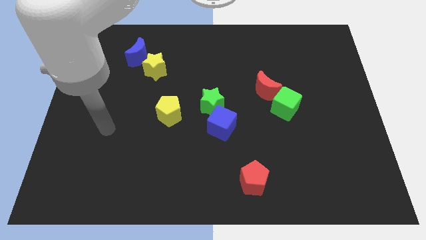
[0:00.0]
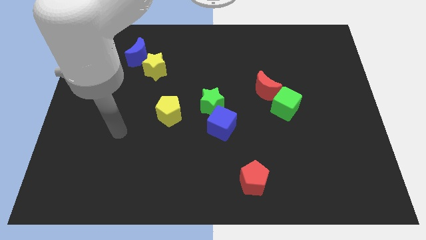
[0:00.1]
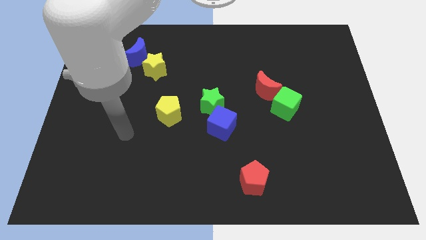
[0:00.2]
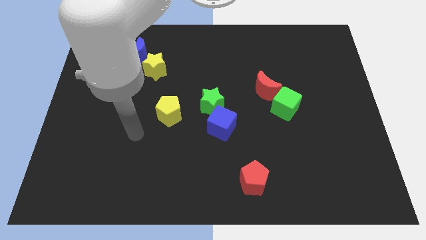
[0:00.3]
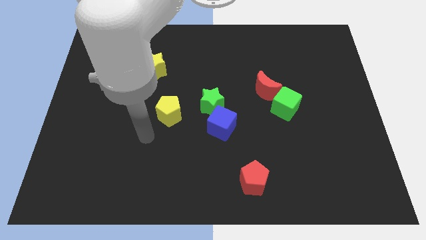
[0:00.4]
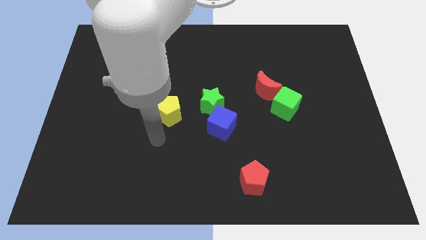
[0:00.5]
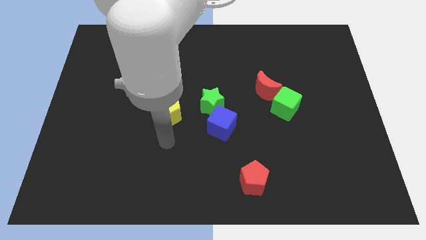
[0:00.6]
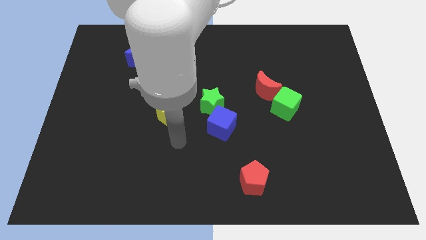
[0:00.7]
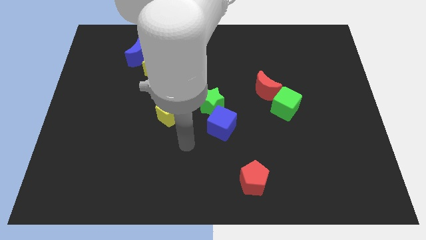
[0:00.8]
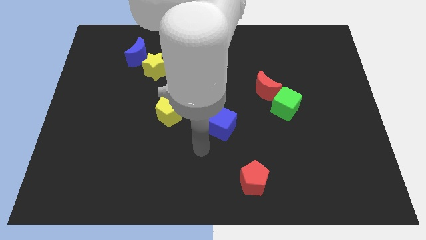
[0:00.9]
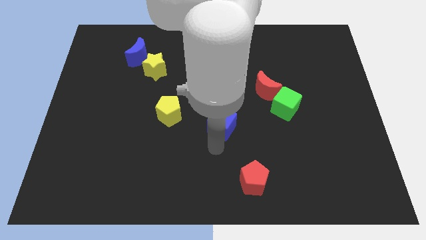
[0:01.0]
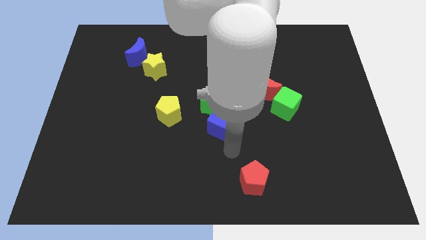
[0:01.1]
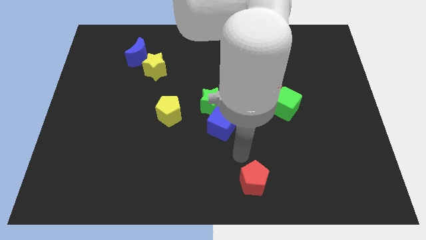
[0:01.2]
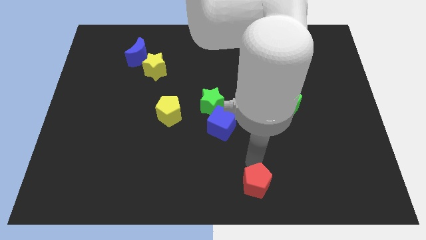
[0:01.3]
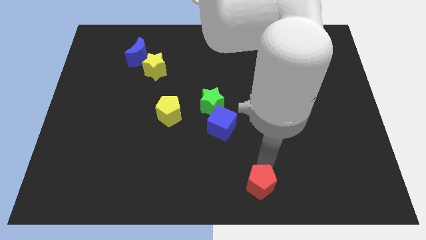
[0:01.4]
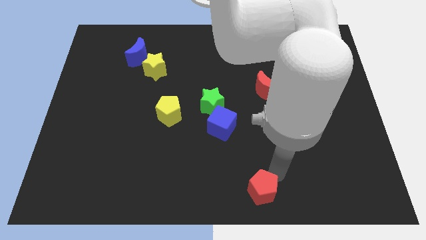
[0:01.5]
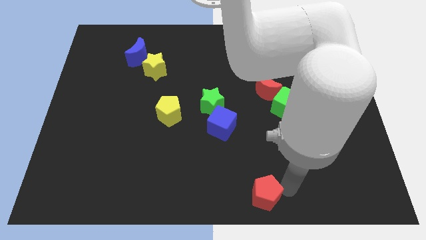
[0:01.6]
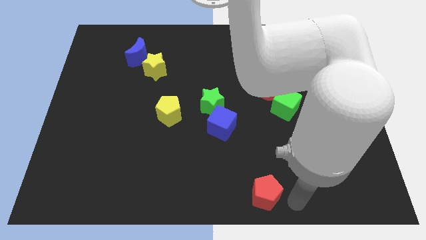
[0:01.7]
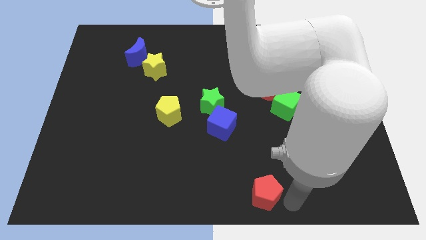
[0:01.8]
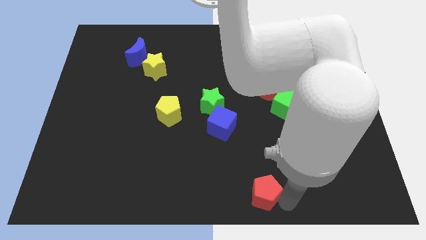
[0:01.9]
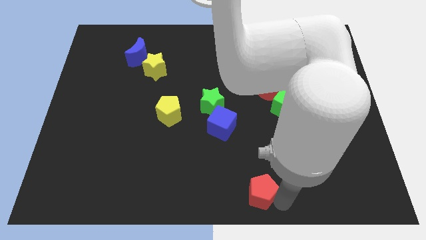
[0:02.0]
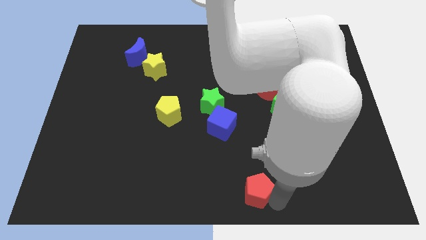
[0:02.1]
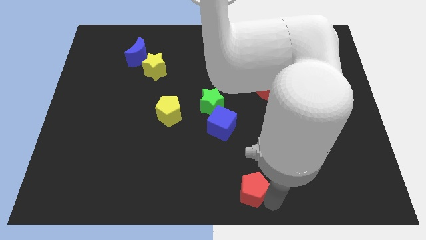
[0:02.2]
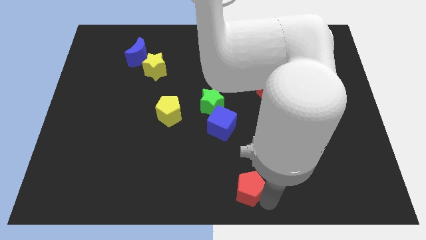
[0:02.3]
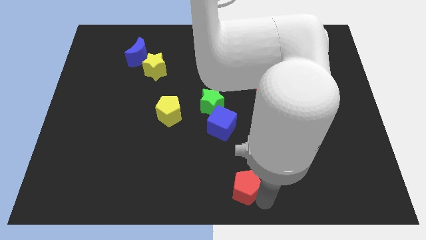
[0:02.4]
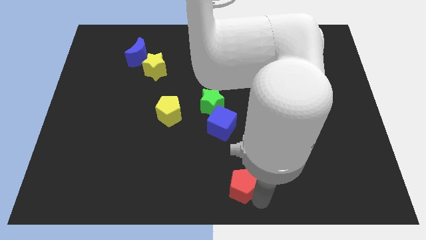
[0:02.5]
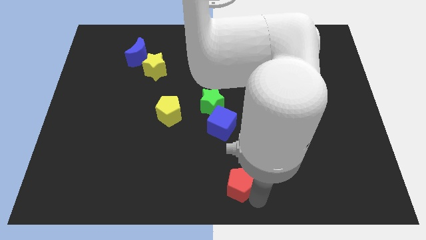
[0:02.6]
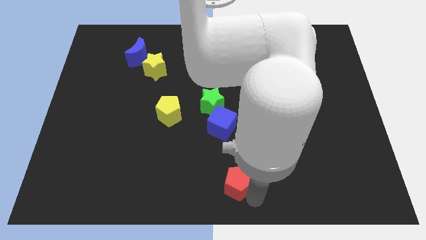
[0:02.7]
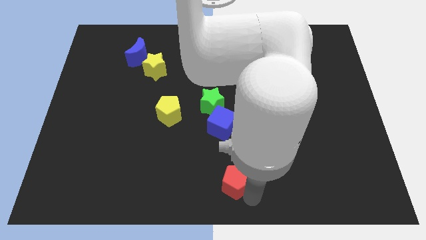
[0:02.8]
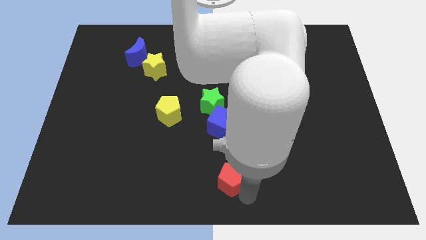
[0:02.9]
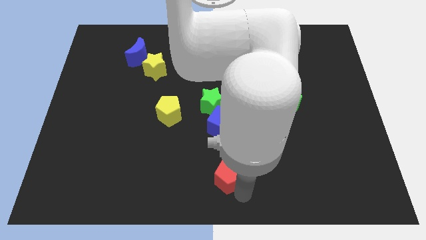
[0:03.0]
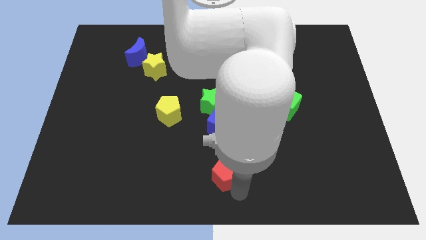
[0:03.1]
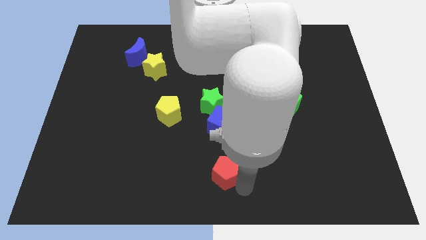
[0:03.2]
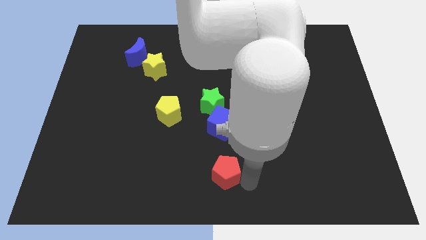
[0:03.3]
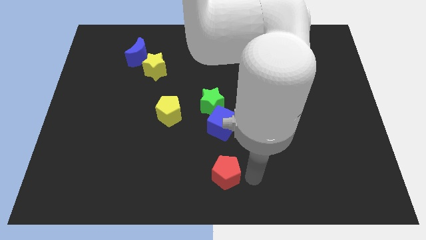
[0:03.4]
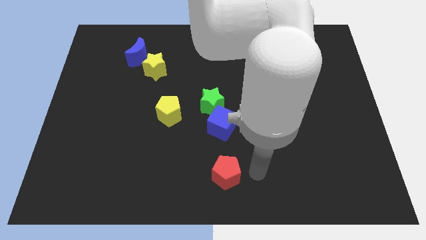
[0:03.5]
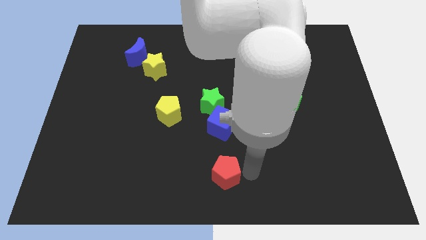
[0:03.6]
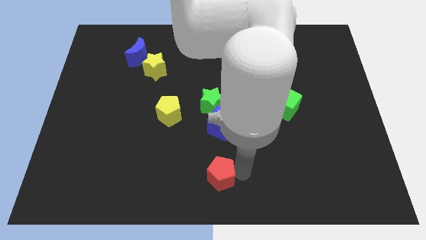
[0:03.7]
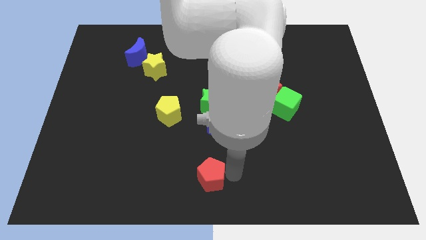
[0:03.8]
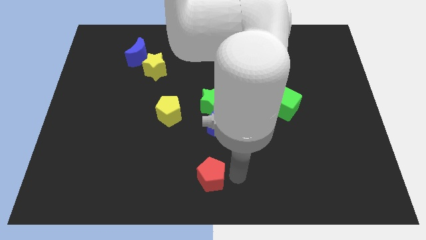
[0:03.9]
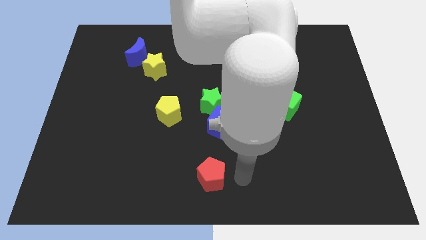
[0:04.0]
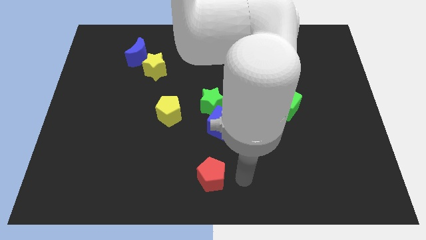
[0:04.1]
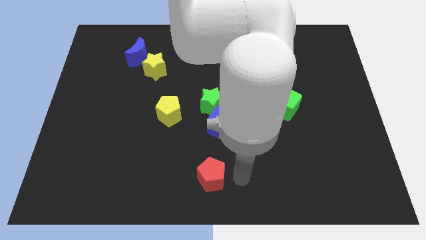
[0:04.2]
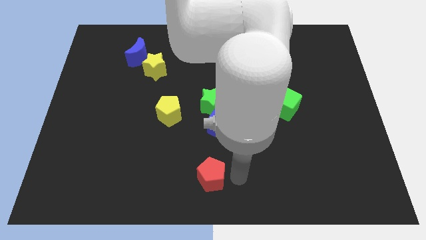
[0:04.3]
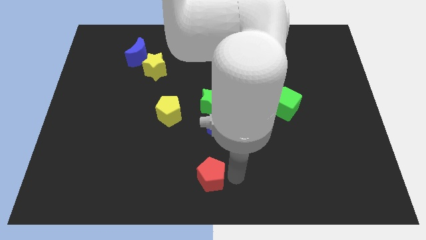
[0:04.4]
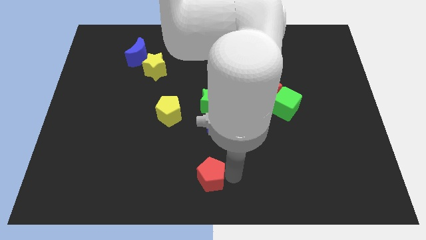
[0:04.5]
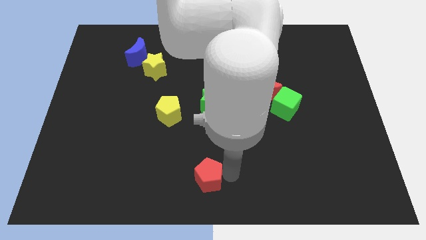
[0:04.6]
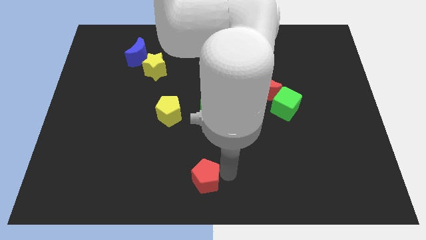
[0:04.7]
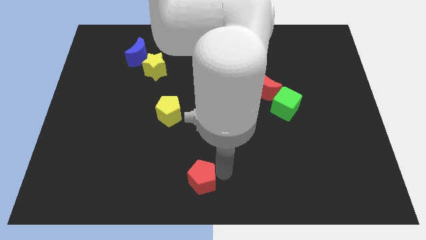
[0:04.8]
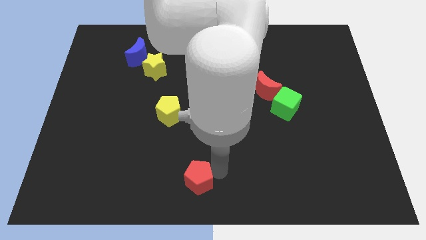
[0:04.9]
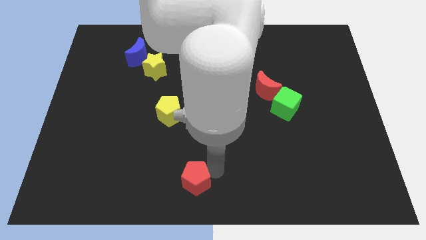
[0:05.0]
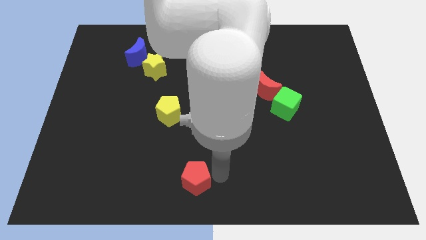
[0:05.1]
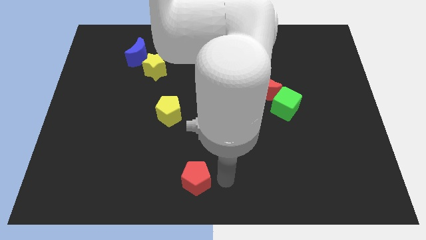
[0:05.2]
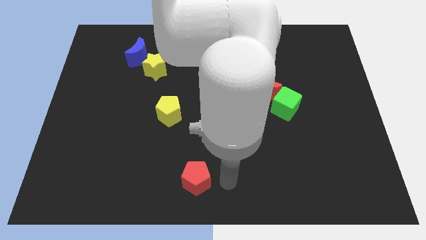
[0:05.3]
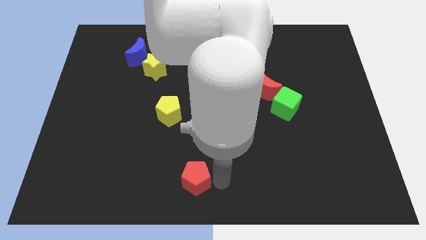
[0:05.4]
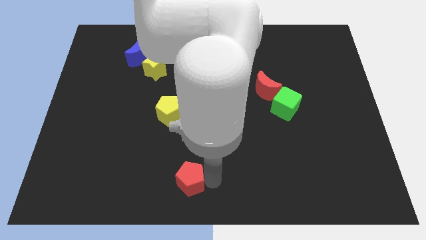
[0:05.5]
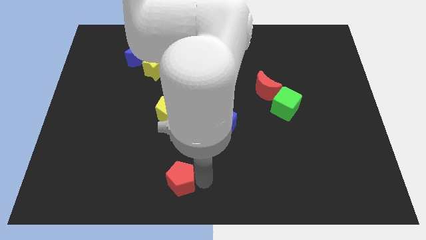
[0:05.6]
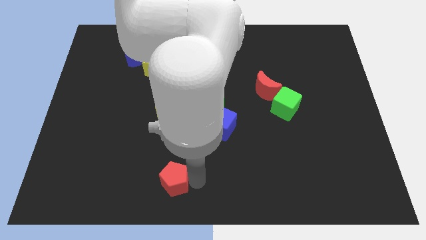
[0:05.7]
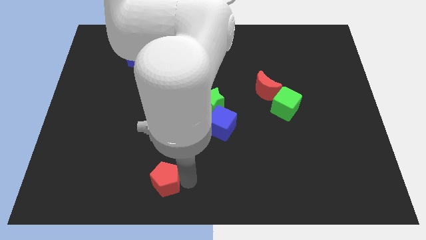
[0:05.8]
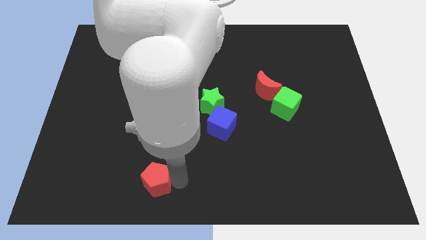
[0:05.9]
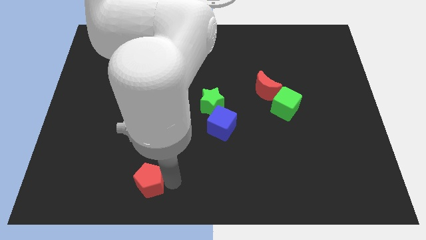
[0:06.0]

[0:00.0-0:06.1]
push the red pentagon to the left

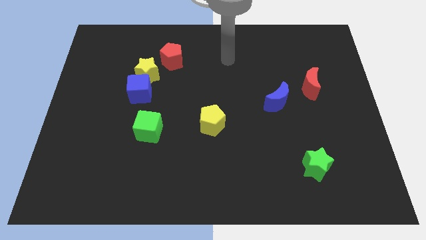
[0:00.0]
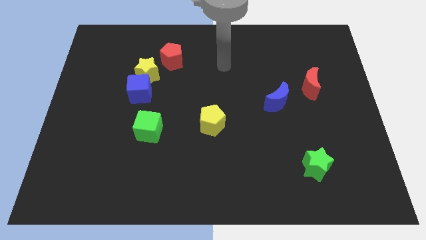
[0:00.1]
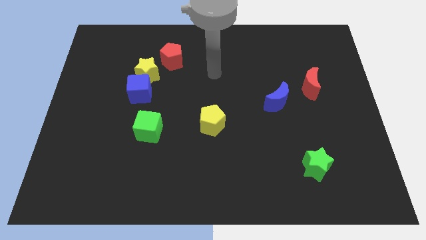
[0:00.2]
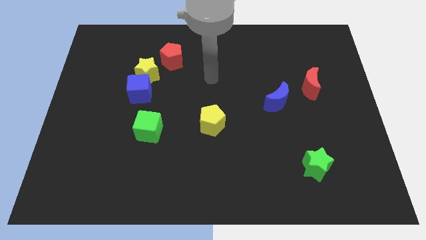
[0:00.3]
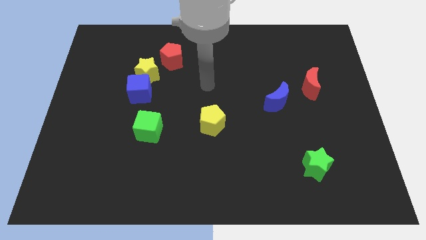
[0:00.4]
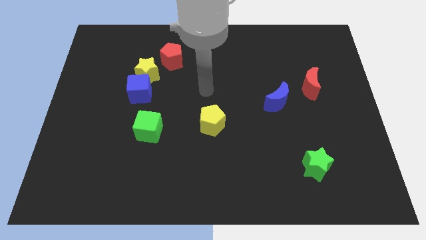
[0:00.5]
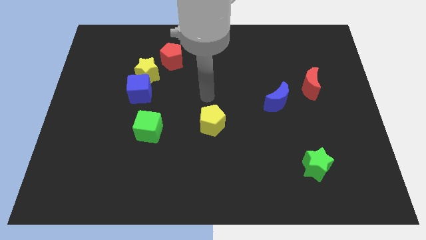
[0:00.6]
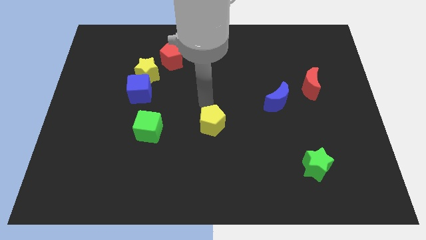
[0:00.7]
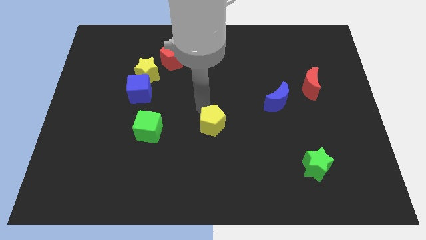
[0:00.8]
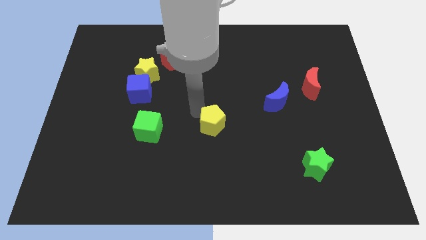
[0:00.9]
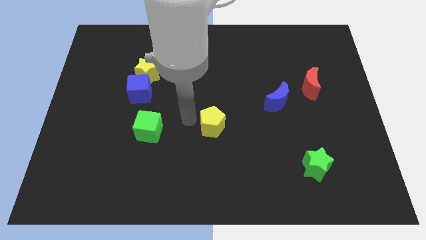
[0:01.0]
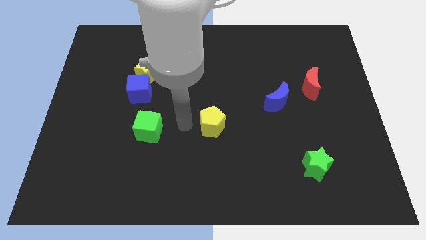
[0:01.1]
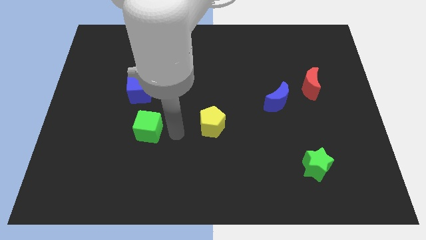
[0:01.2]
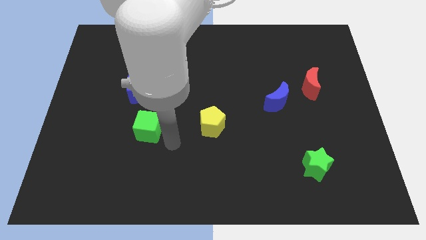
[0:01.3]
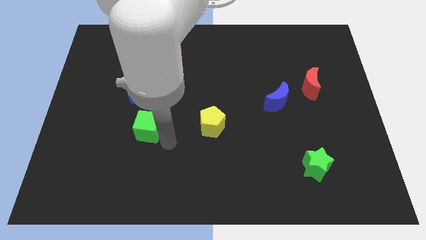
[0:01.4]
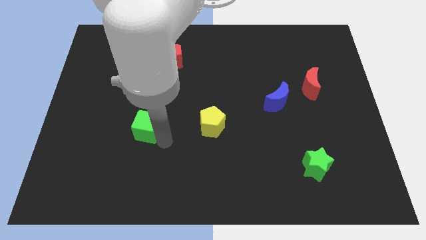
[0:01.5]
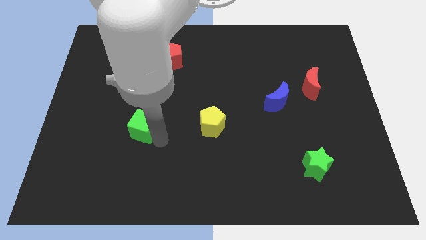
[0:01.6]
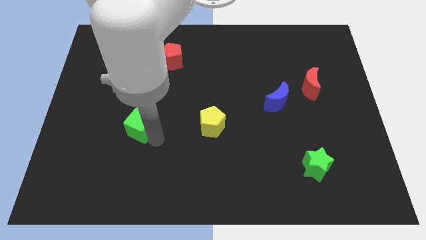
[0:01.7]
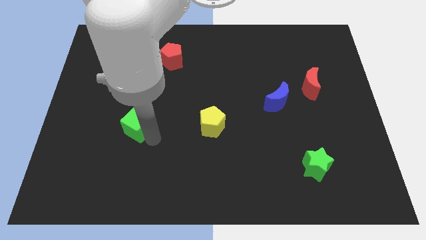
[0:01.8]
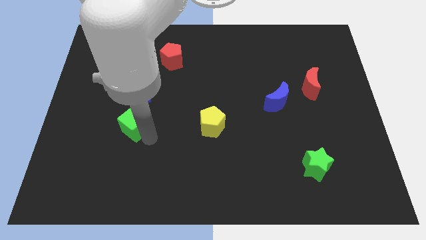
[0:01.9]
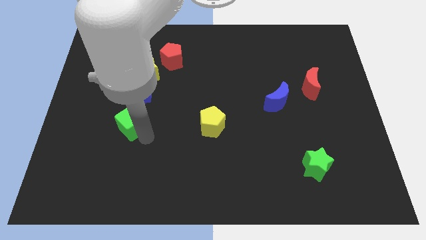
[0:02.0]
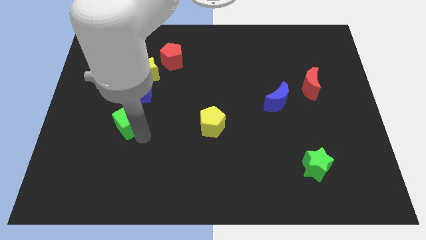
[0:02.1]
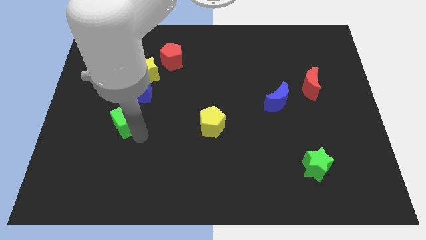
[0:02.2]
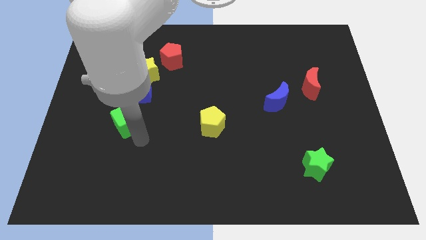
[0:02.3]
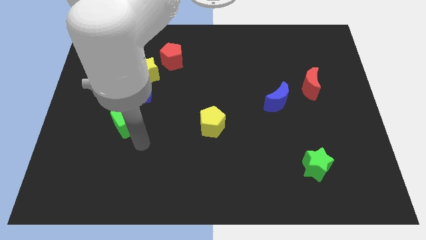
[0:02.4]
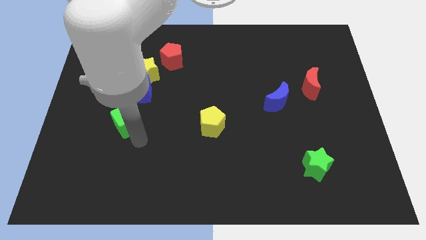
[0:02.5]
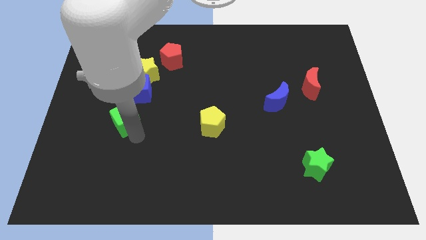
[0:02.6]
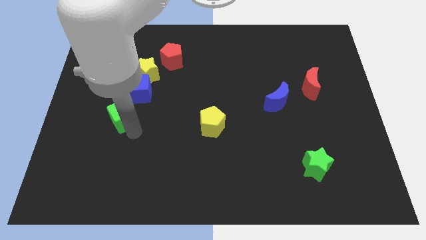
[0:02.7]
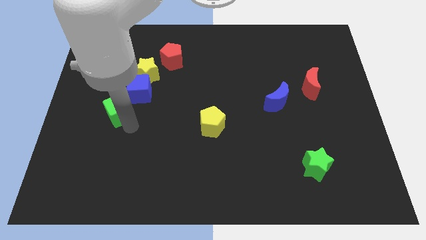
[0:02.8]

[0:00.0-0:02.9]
move the green cube a little diagonally upwards and left
